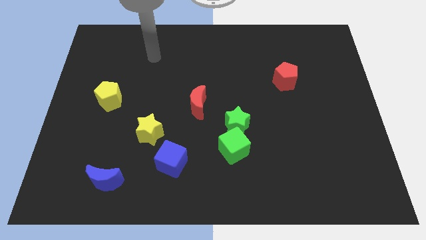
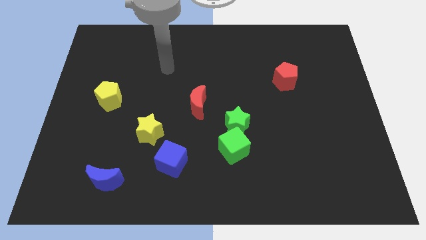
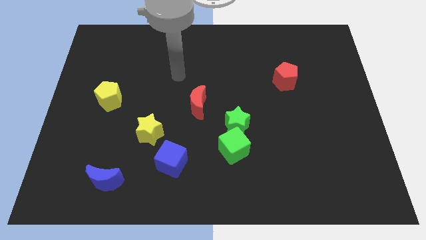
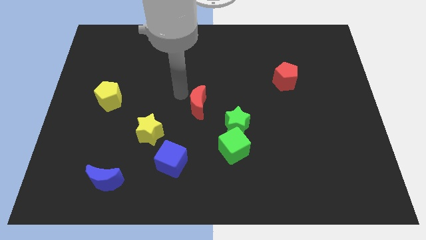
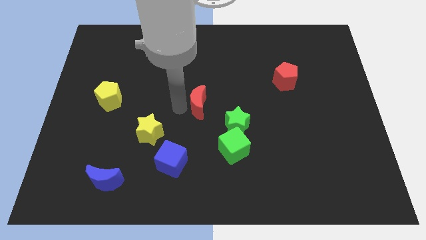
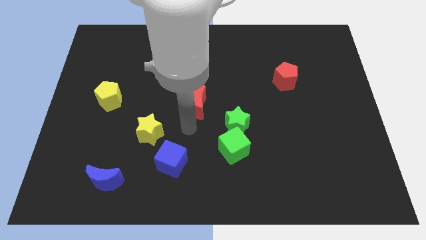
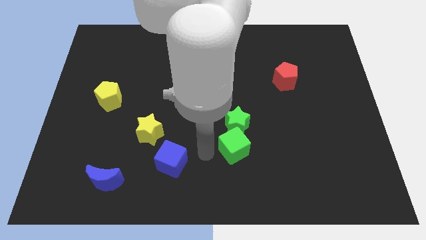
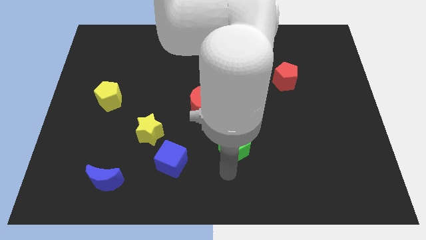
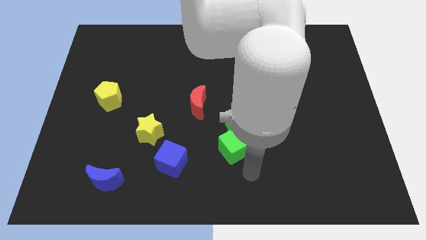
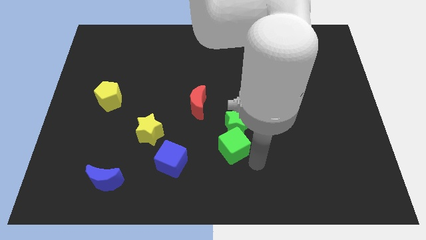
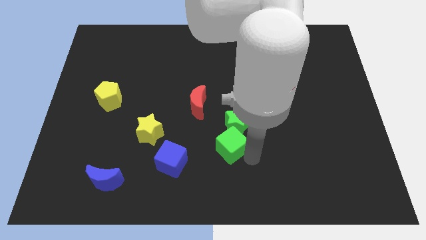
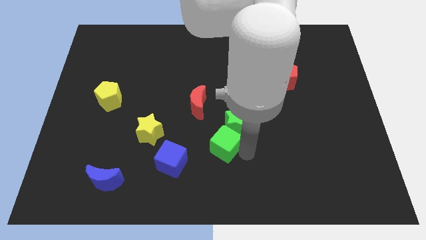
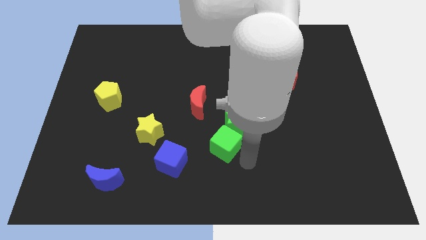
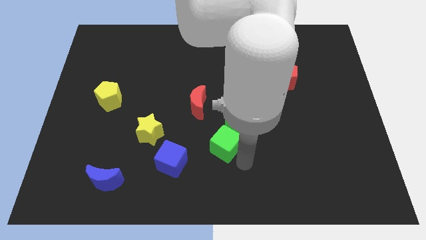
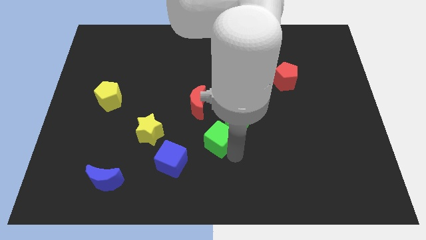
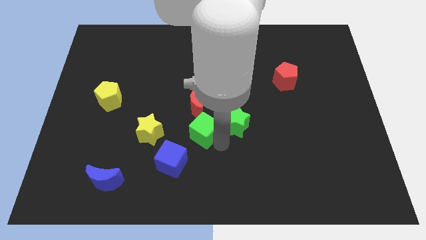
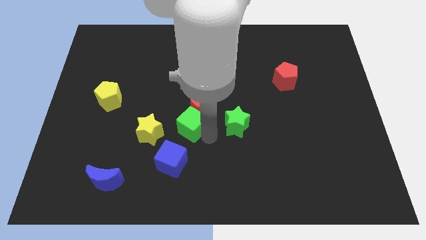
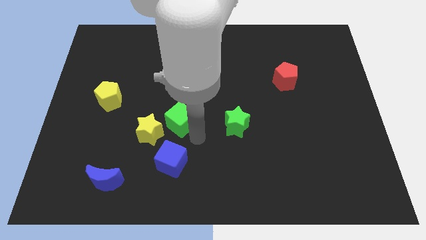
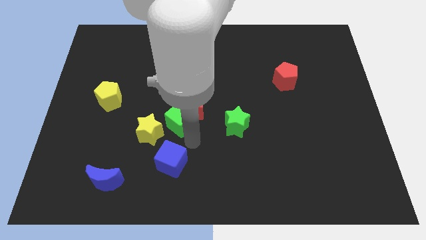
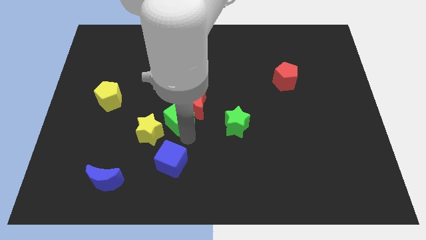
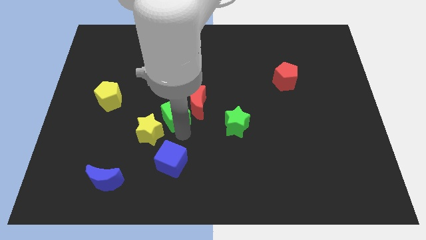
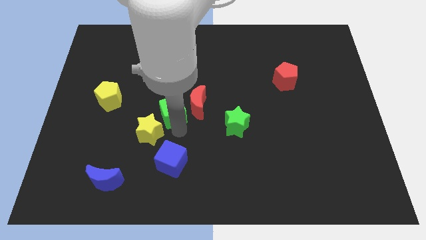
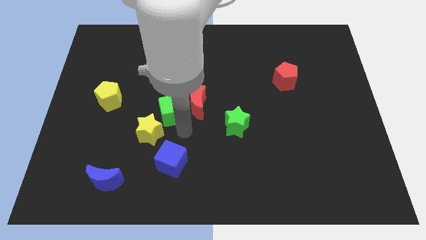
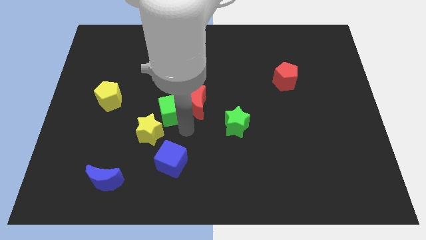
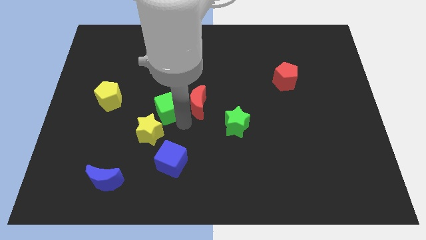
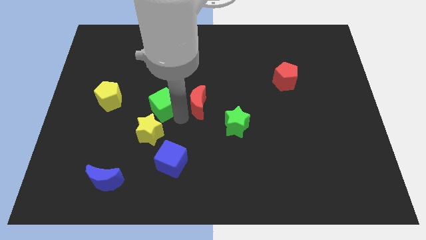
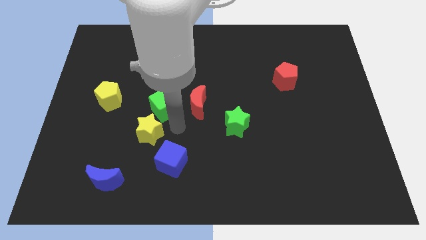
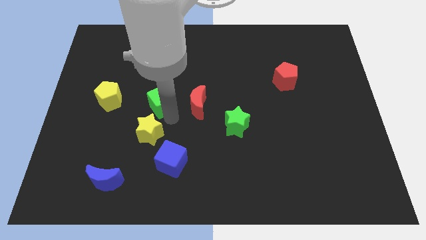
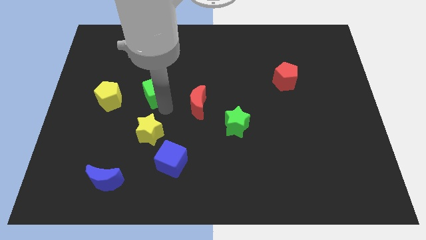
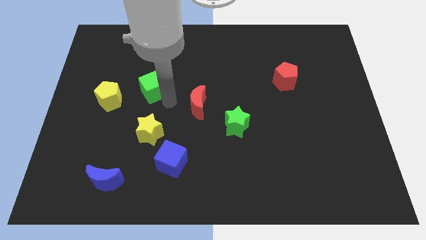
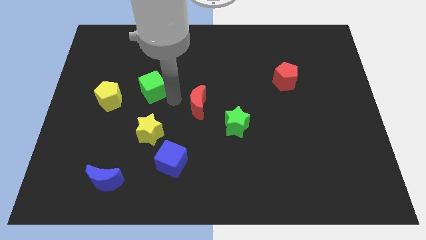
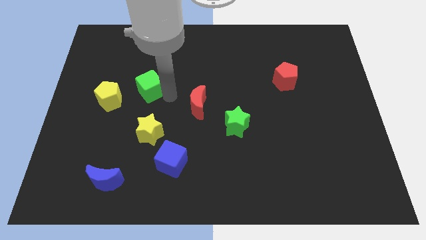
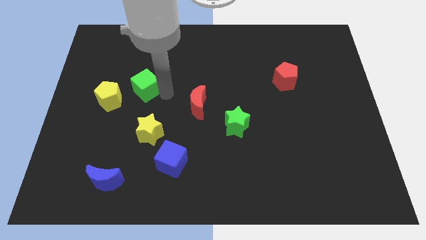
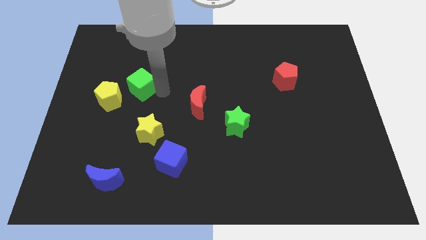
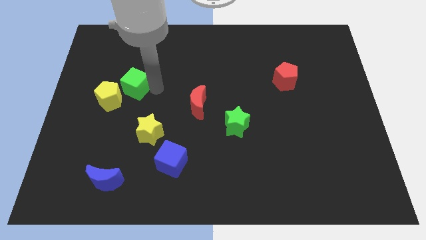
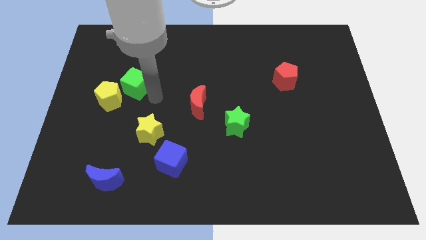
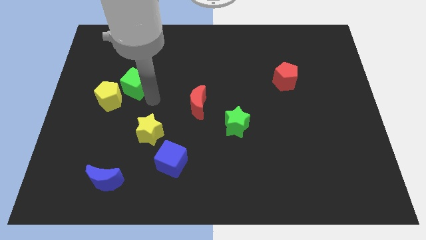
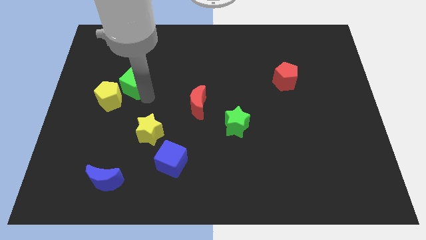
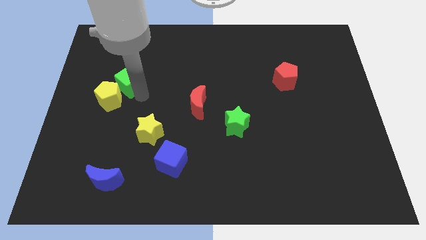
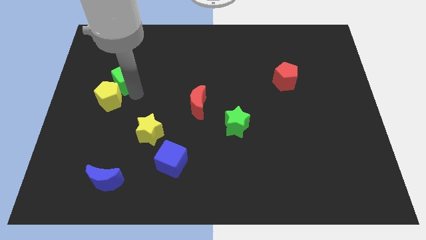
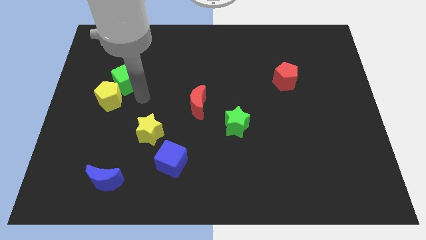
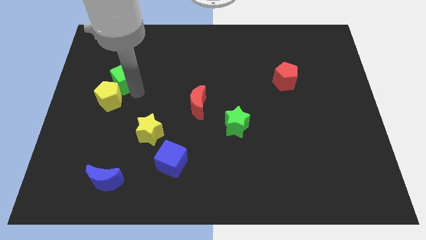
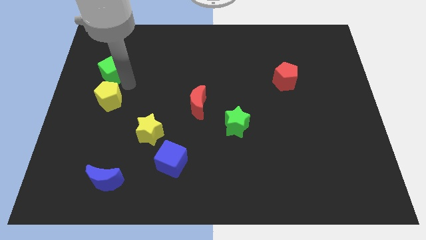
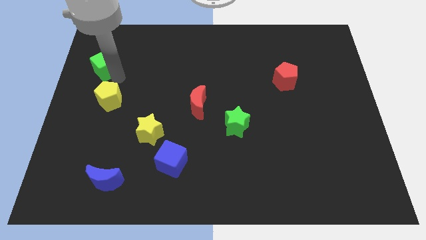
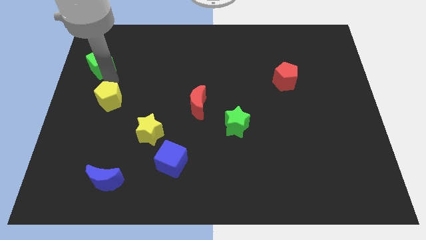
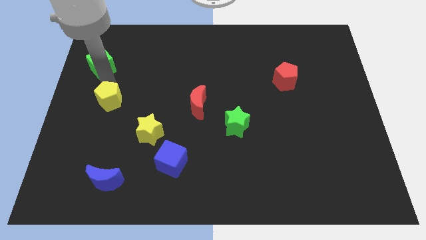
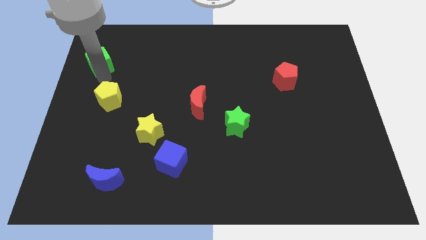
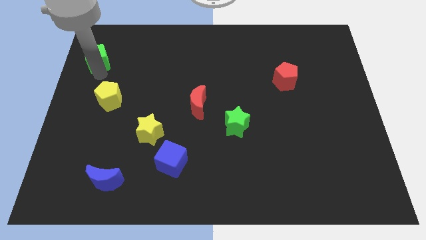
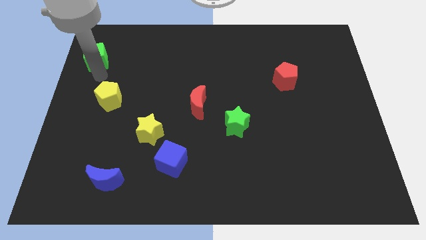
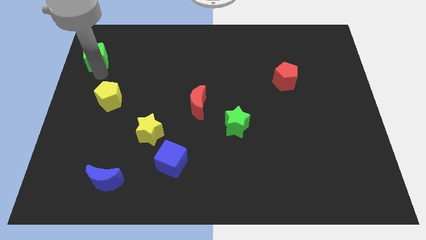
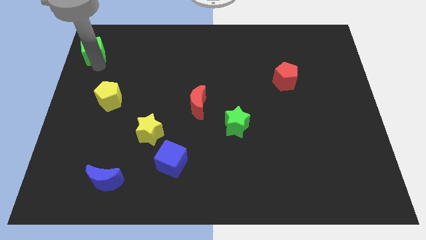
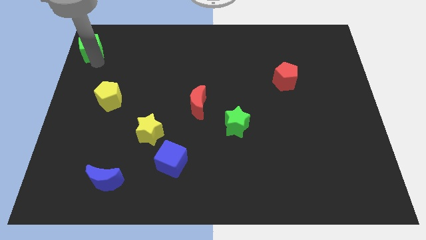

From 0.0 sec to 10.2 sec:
push the green cube to the top left of the board

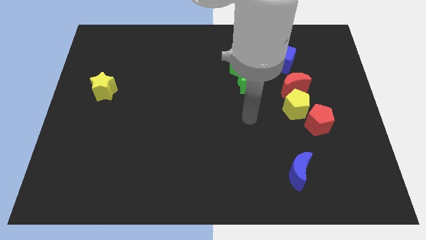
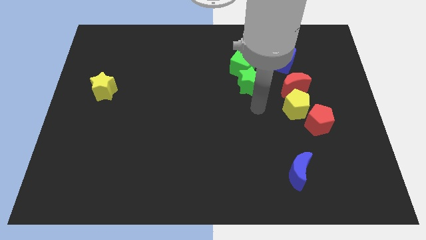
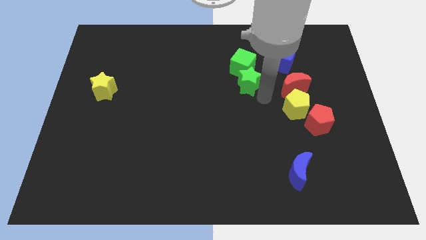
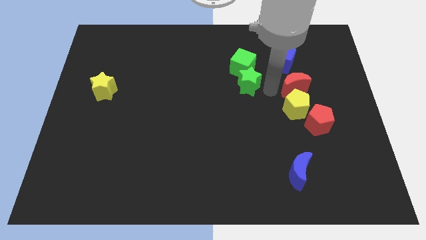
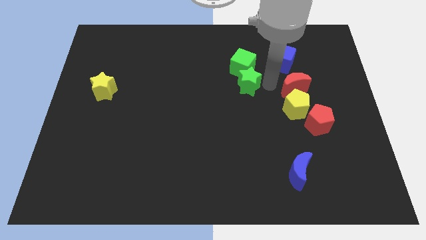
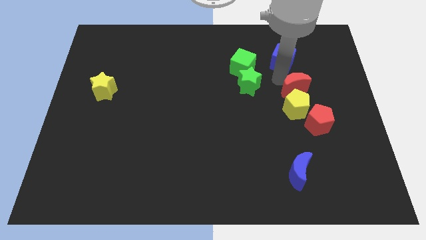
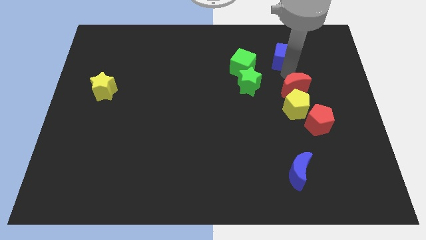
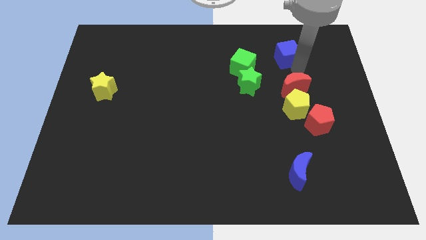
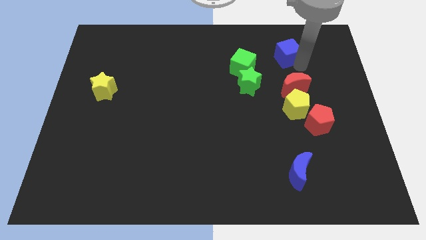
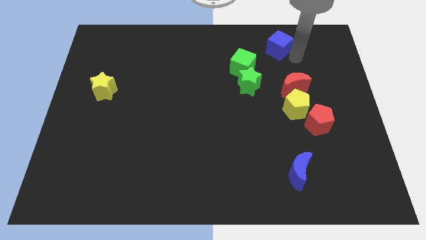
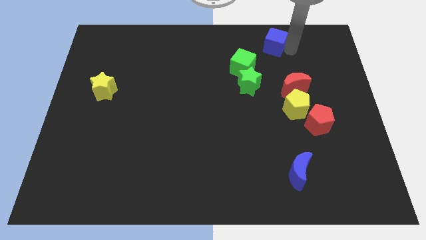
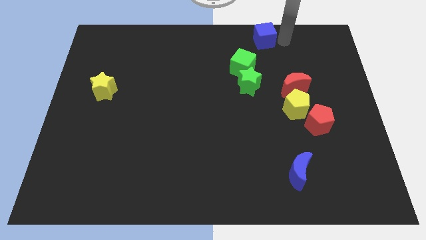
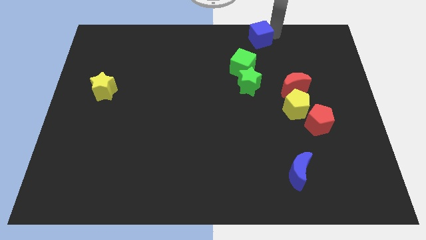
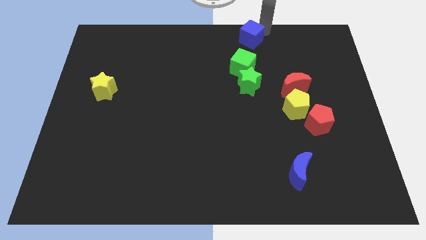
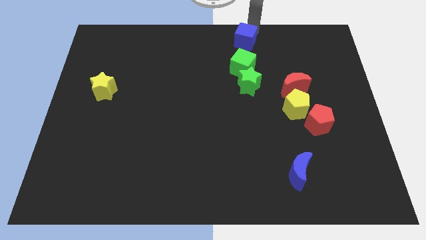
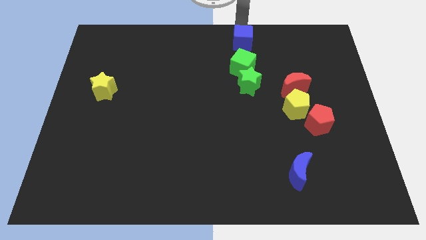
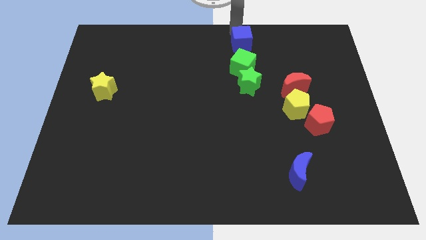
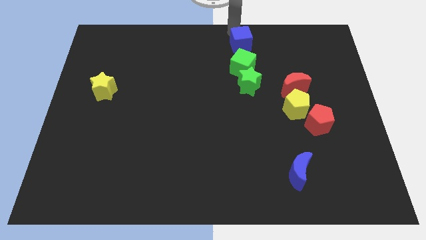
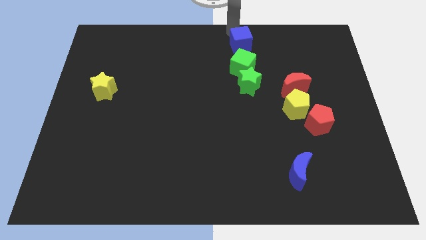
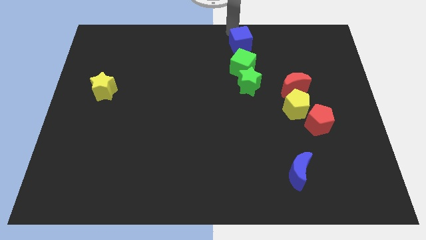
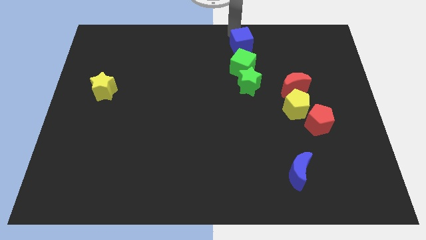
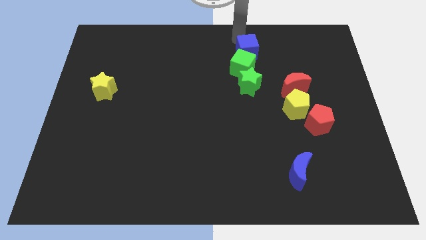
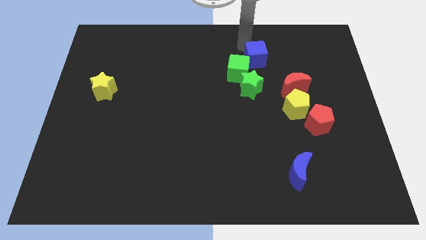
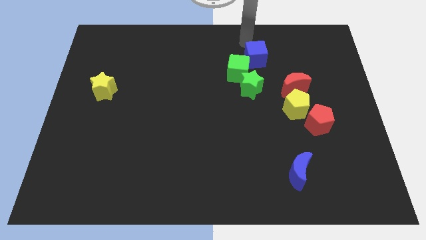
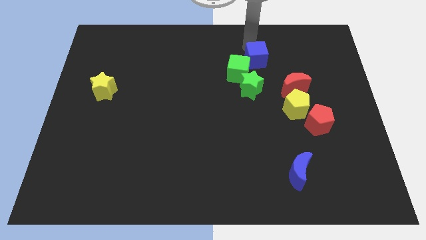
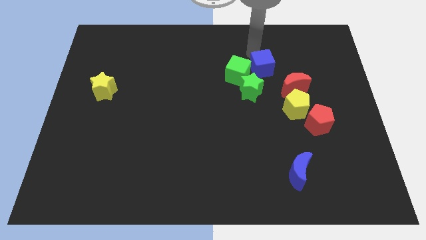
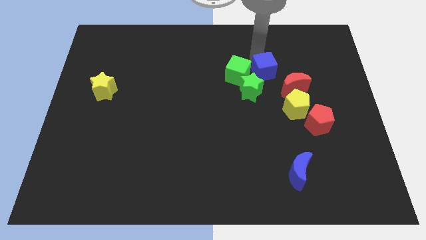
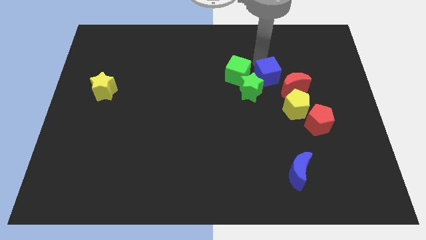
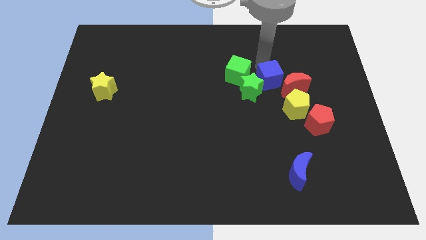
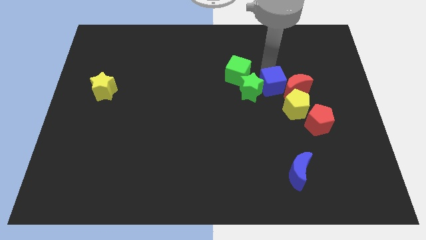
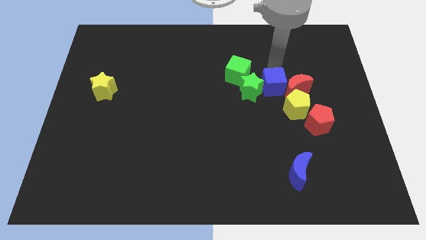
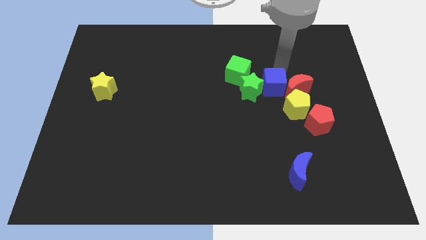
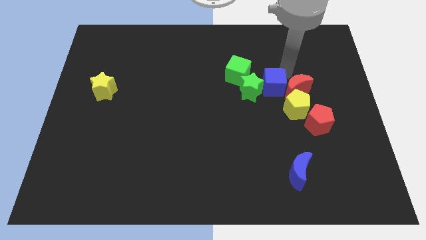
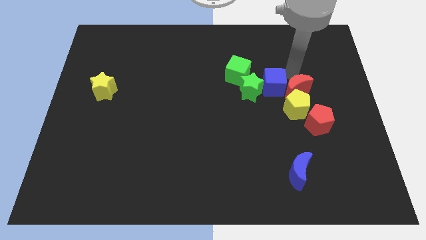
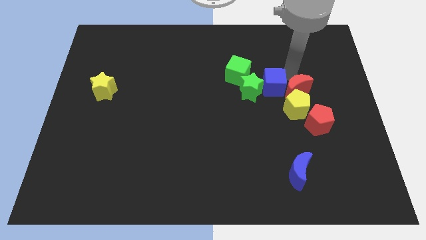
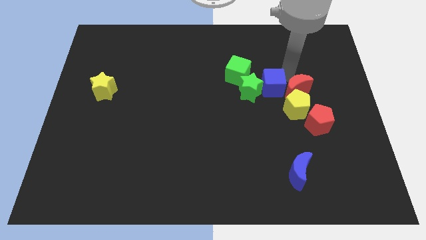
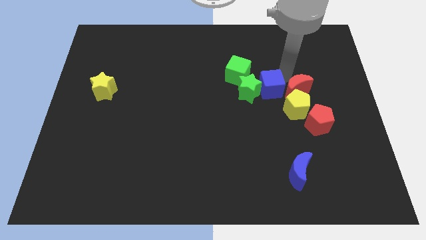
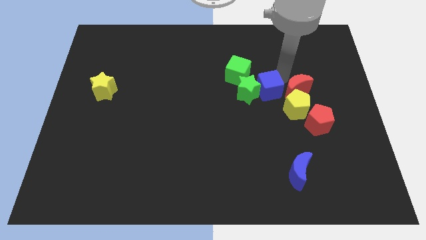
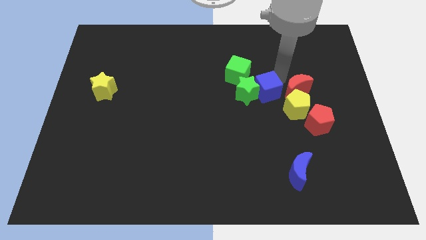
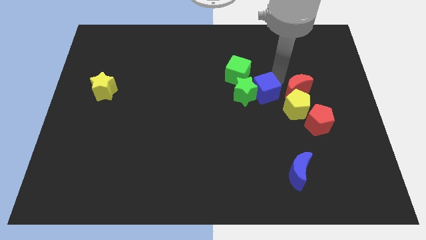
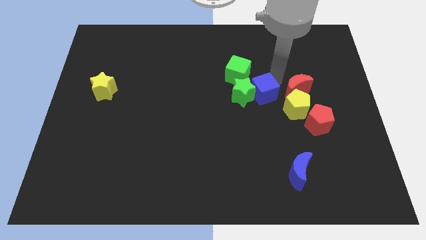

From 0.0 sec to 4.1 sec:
push the blue cube to the center
